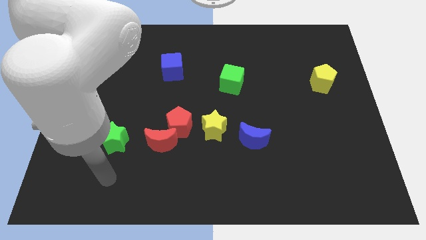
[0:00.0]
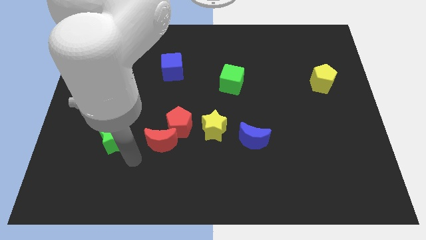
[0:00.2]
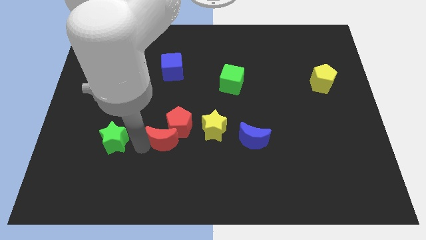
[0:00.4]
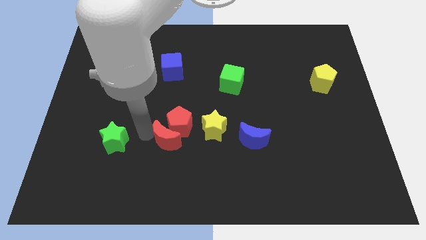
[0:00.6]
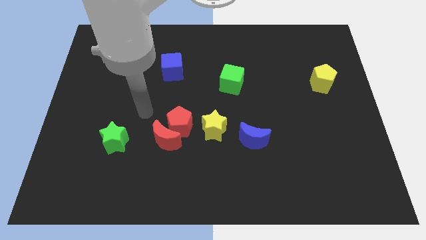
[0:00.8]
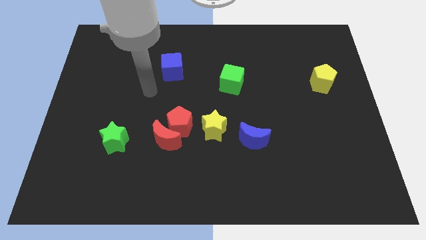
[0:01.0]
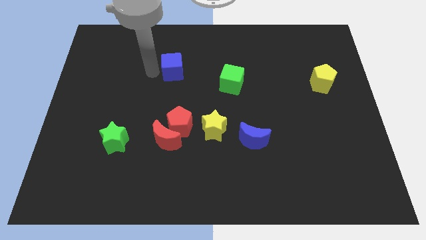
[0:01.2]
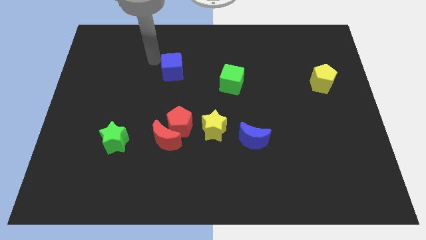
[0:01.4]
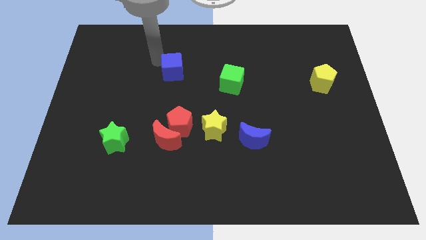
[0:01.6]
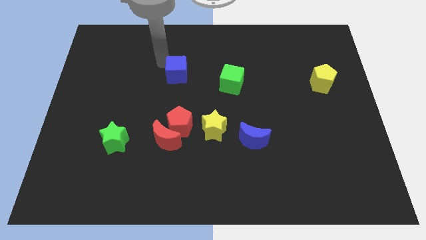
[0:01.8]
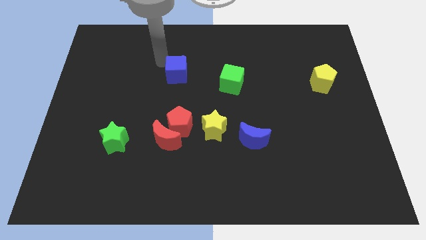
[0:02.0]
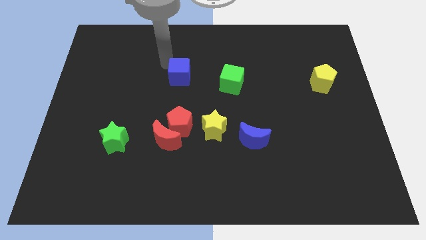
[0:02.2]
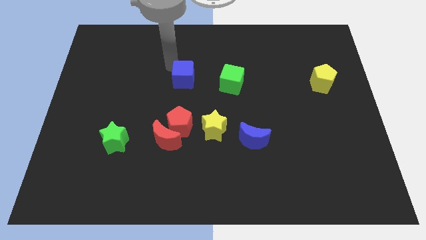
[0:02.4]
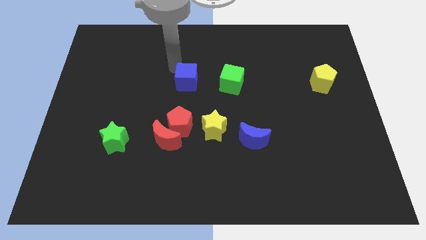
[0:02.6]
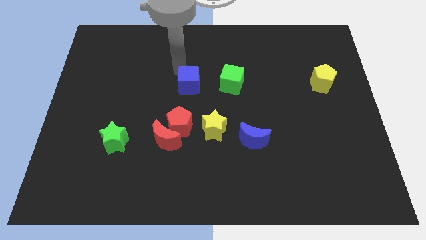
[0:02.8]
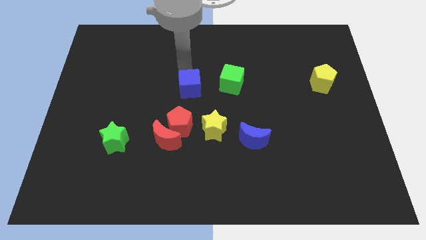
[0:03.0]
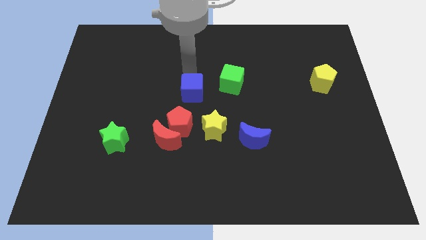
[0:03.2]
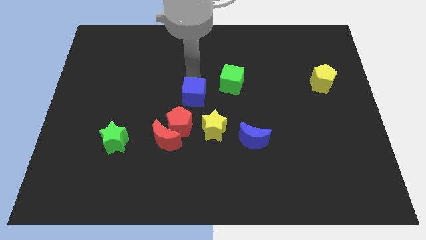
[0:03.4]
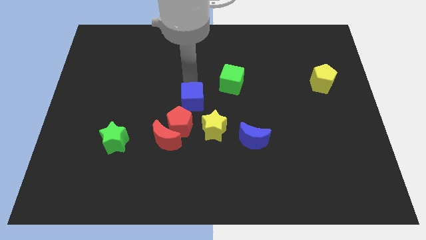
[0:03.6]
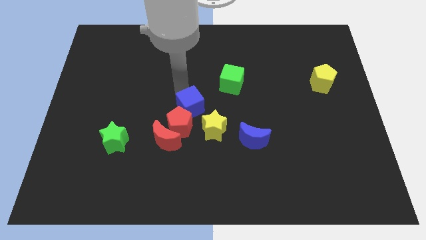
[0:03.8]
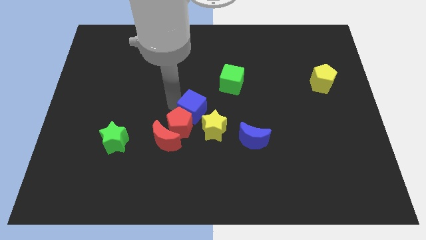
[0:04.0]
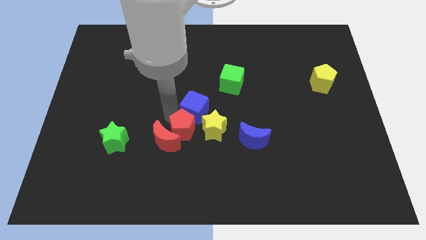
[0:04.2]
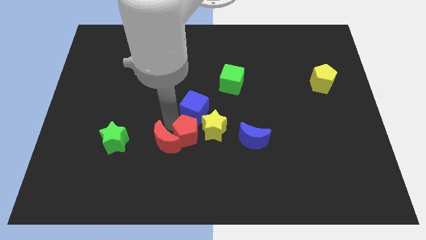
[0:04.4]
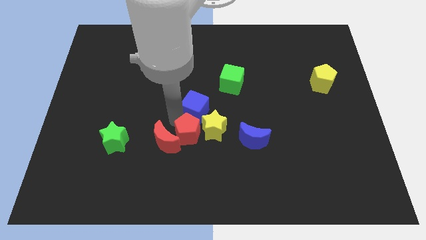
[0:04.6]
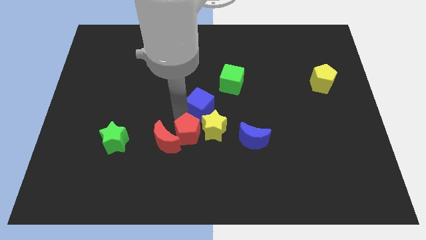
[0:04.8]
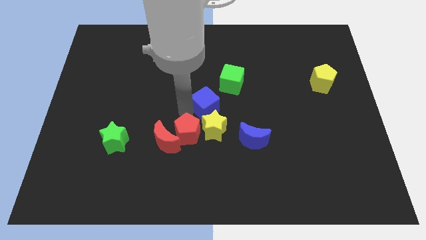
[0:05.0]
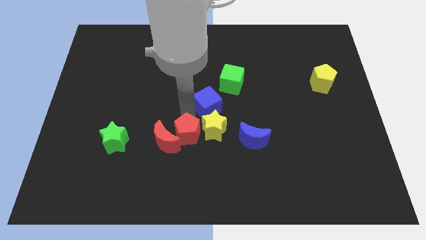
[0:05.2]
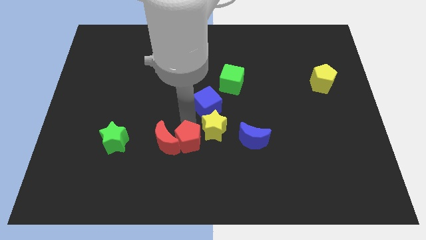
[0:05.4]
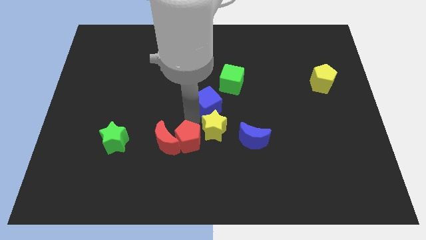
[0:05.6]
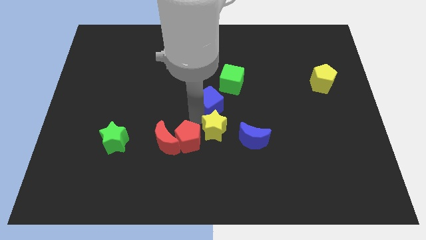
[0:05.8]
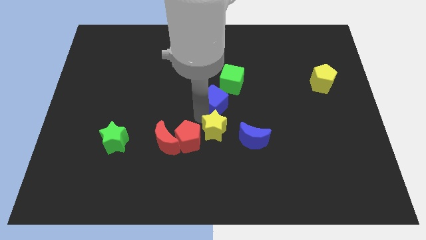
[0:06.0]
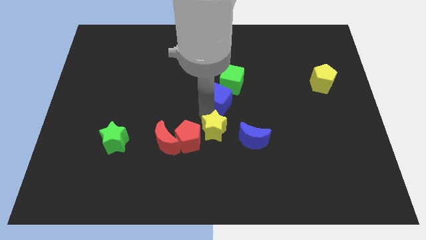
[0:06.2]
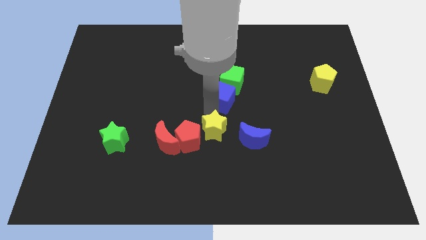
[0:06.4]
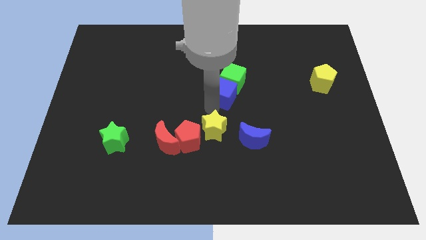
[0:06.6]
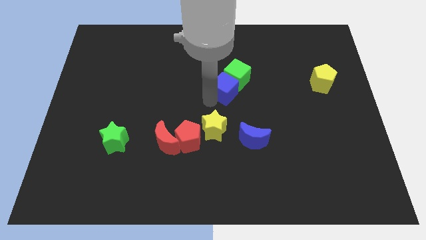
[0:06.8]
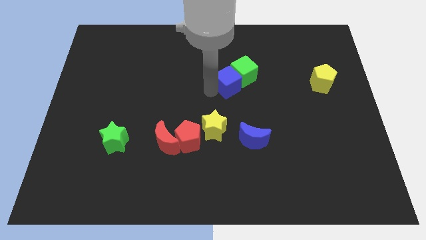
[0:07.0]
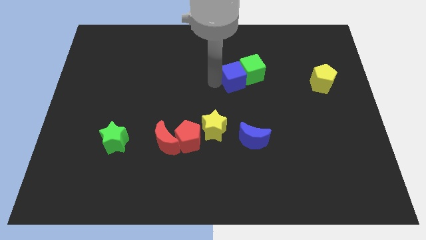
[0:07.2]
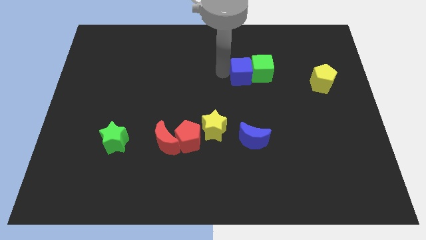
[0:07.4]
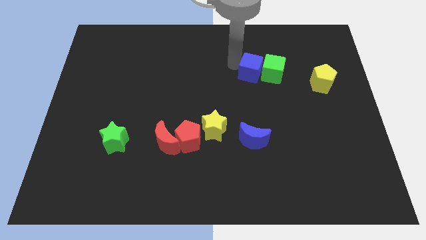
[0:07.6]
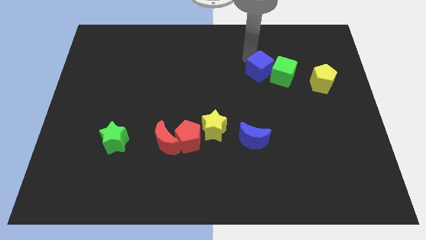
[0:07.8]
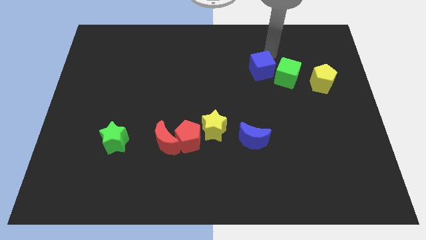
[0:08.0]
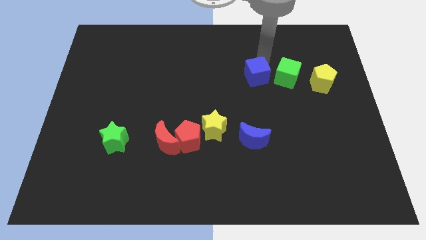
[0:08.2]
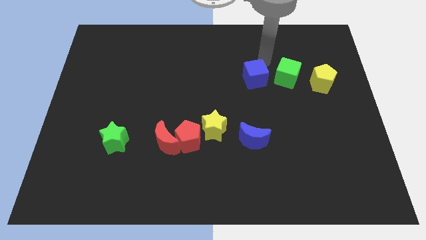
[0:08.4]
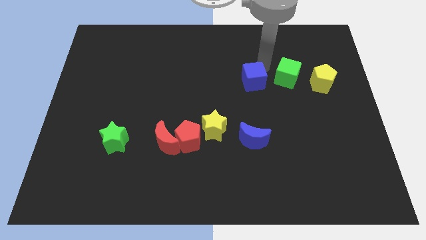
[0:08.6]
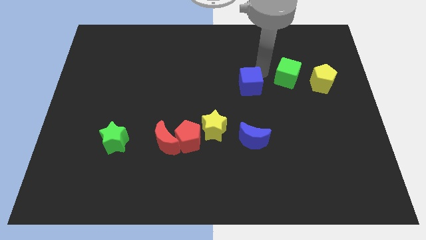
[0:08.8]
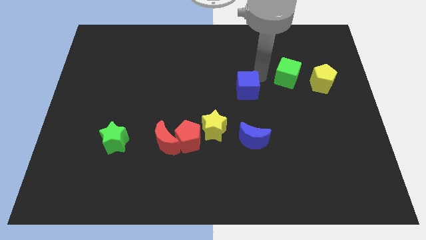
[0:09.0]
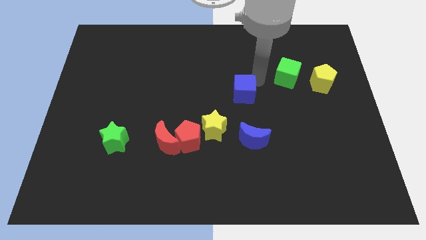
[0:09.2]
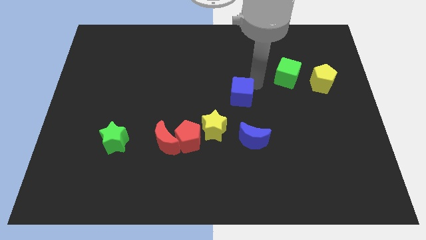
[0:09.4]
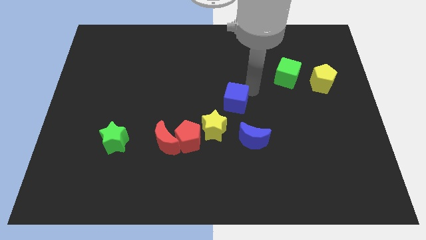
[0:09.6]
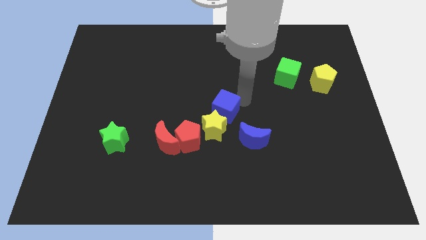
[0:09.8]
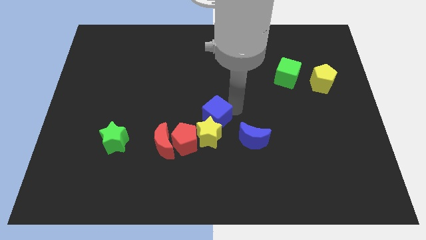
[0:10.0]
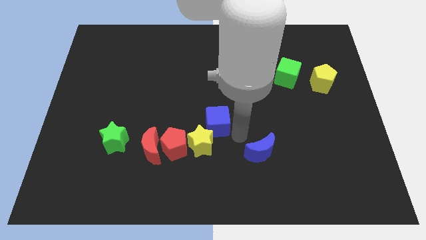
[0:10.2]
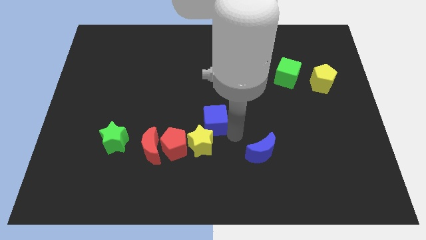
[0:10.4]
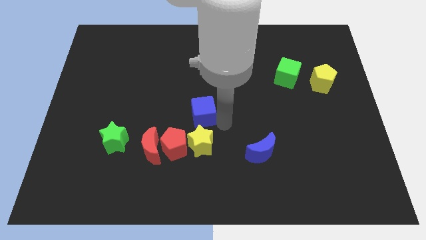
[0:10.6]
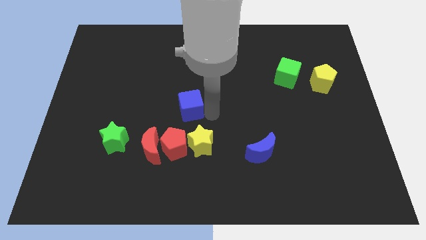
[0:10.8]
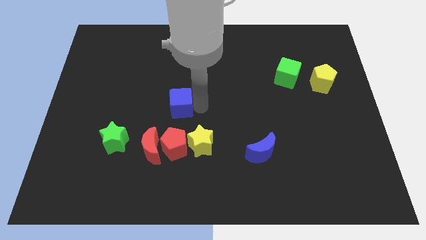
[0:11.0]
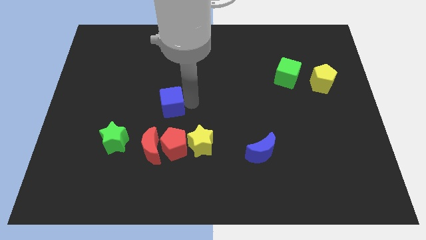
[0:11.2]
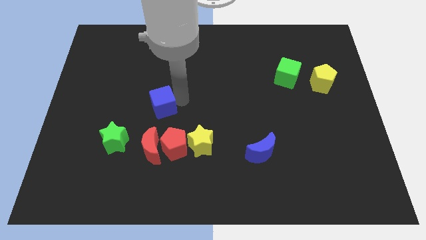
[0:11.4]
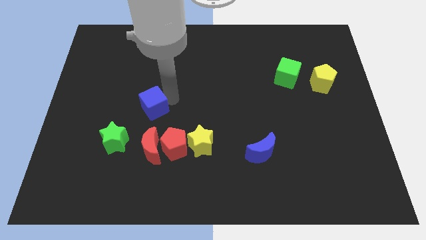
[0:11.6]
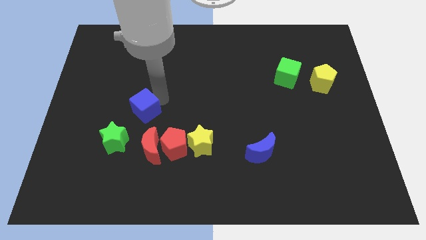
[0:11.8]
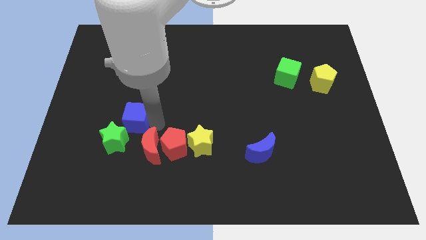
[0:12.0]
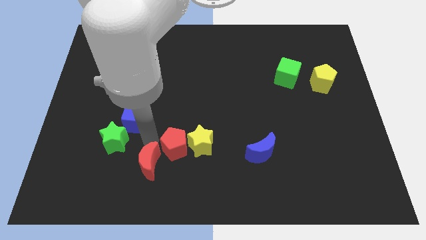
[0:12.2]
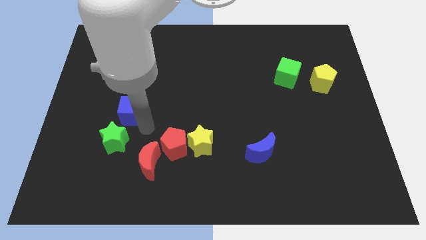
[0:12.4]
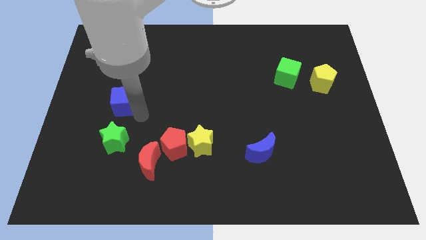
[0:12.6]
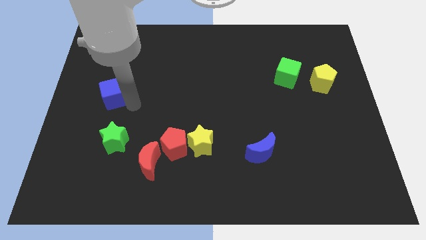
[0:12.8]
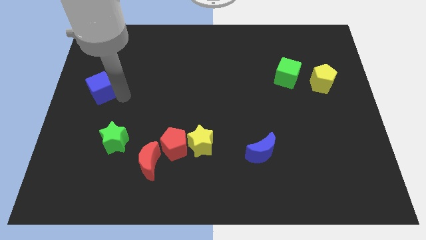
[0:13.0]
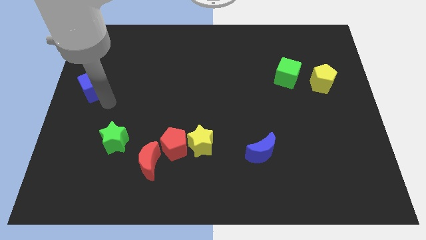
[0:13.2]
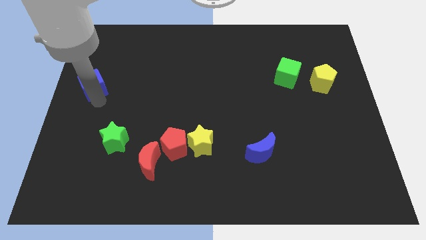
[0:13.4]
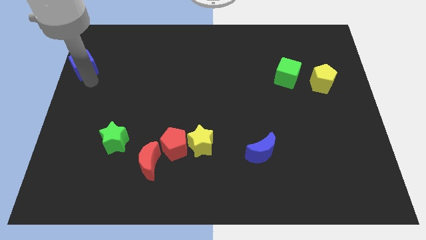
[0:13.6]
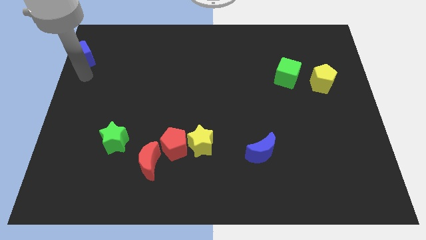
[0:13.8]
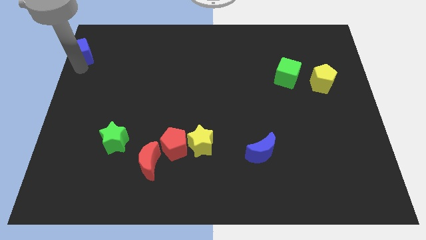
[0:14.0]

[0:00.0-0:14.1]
put the blue cube to the top left of the board
